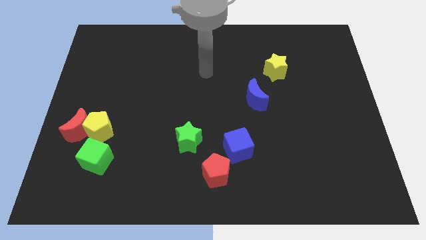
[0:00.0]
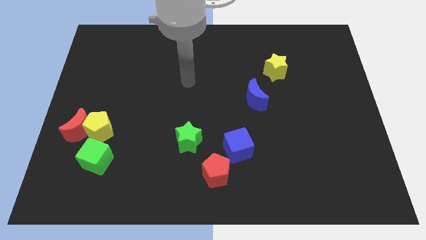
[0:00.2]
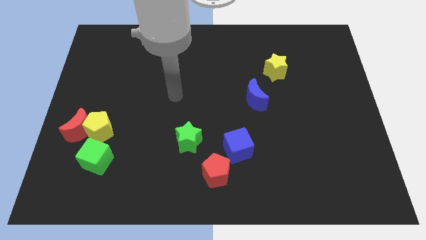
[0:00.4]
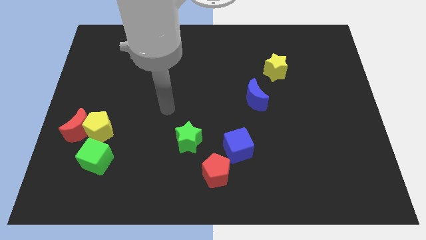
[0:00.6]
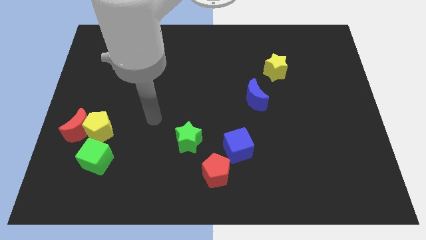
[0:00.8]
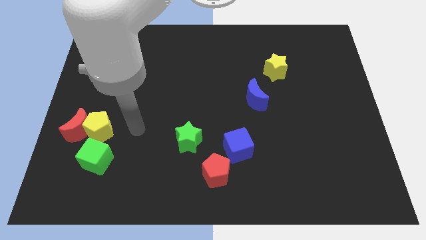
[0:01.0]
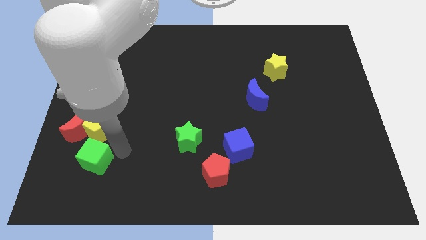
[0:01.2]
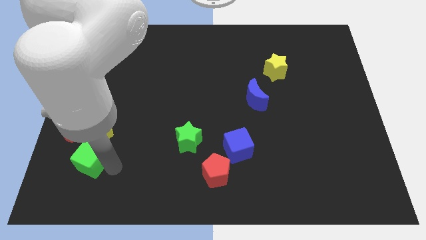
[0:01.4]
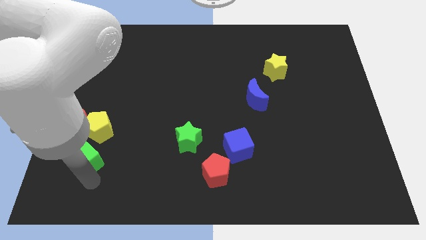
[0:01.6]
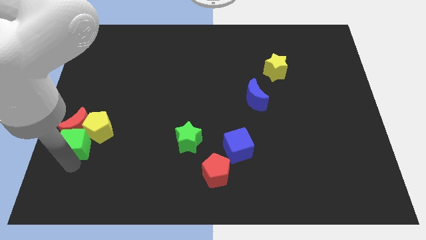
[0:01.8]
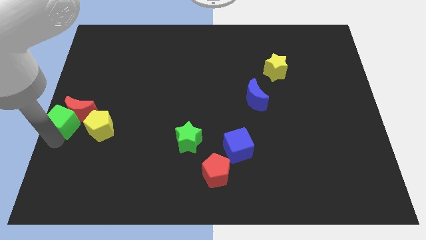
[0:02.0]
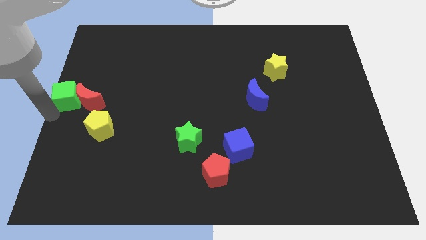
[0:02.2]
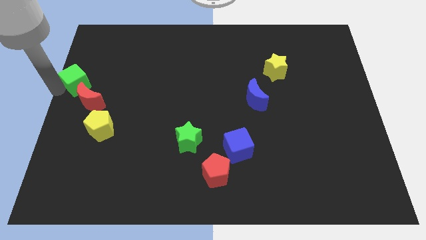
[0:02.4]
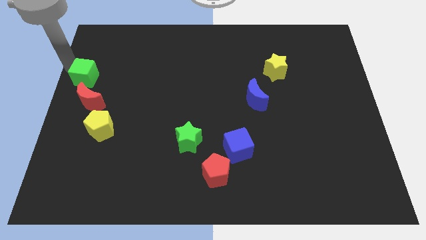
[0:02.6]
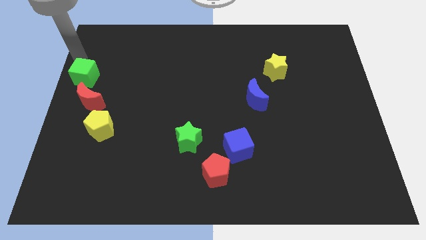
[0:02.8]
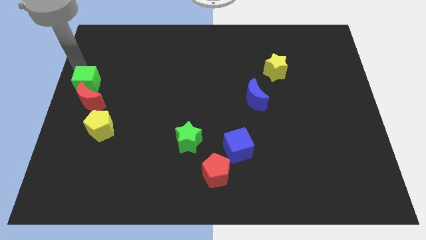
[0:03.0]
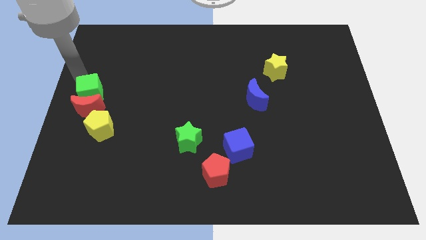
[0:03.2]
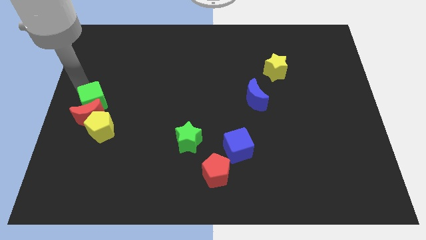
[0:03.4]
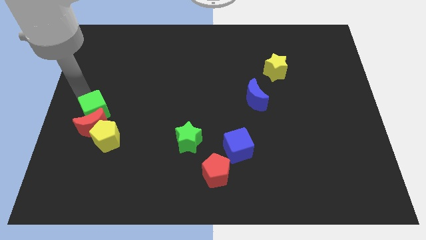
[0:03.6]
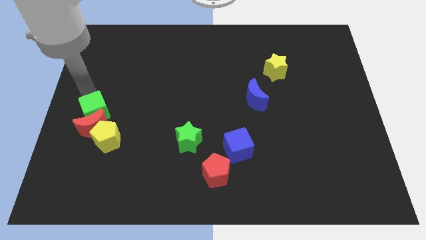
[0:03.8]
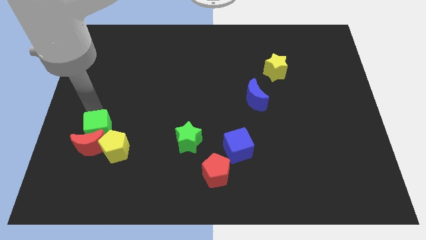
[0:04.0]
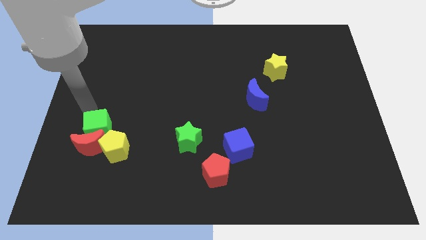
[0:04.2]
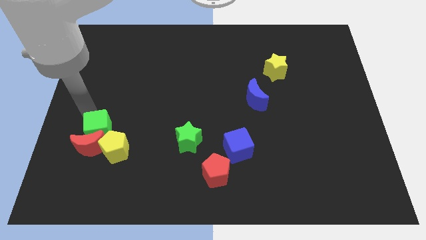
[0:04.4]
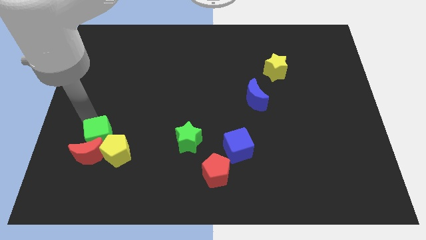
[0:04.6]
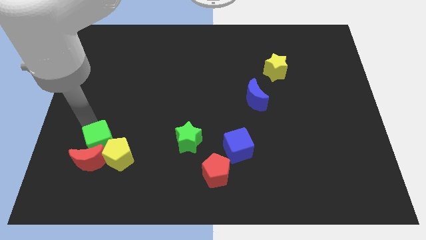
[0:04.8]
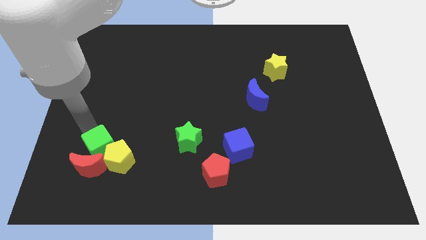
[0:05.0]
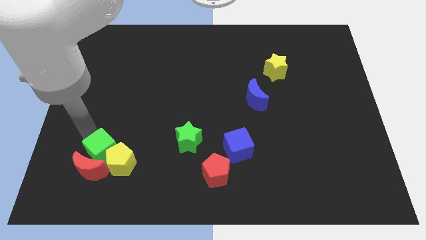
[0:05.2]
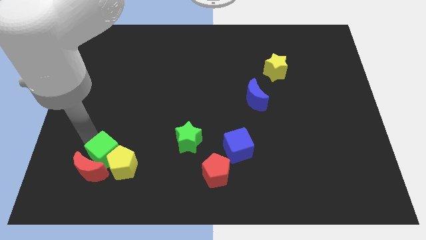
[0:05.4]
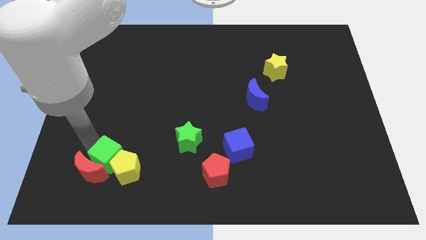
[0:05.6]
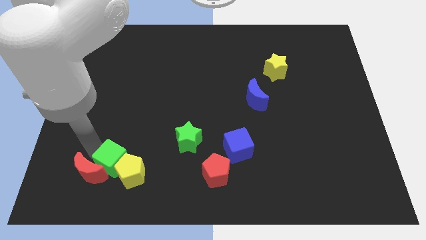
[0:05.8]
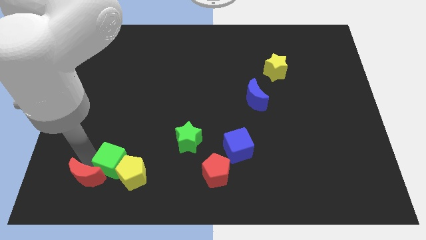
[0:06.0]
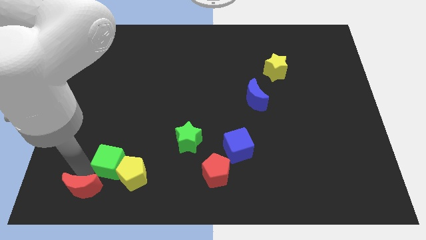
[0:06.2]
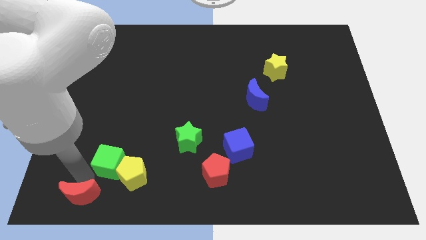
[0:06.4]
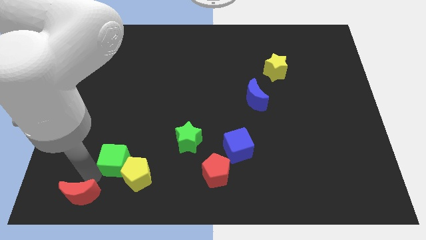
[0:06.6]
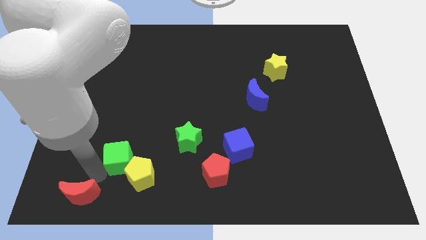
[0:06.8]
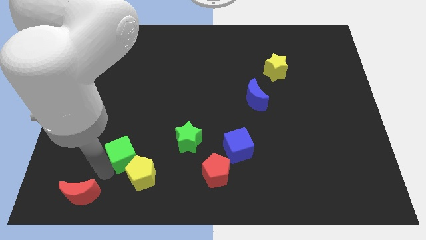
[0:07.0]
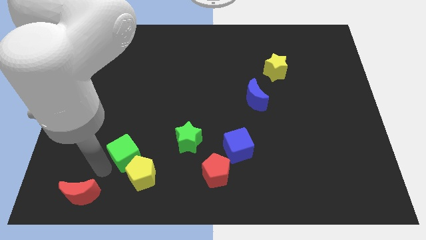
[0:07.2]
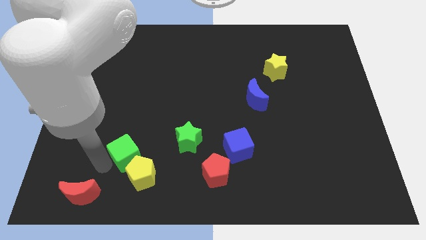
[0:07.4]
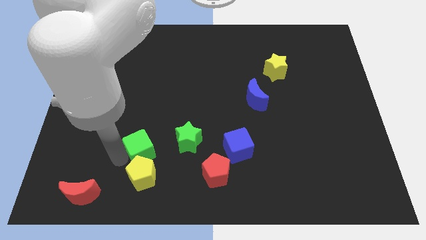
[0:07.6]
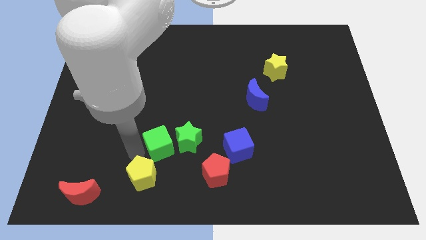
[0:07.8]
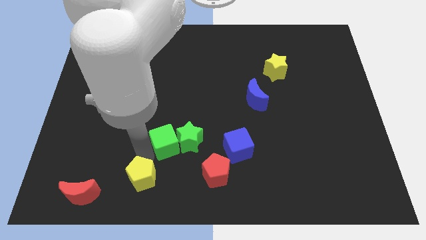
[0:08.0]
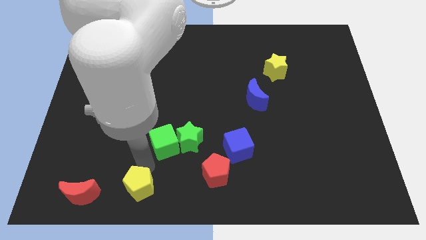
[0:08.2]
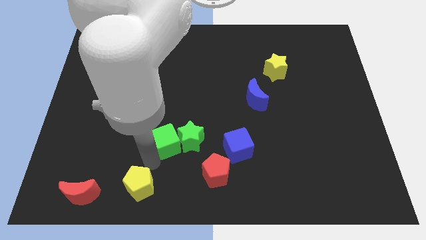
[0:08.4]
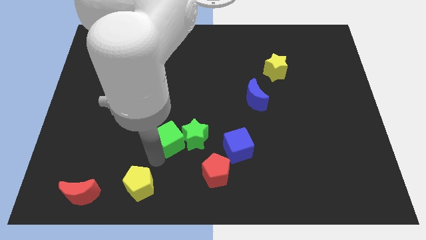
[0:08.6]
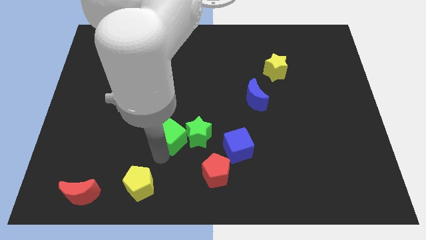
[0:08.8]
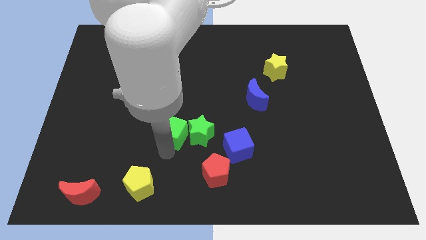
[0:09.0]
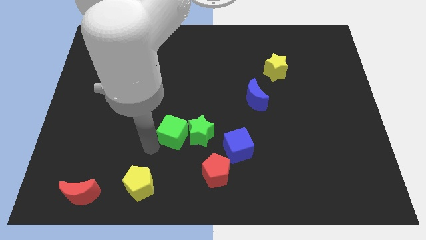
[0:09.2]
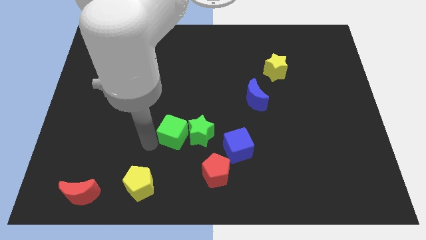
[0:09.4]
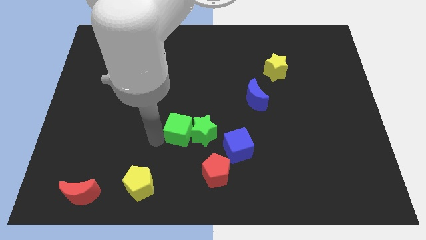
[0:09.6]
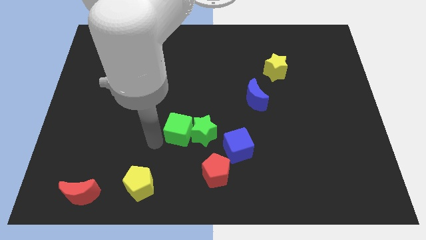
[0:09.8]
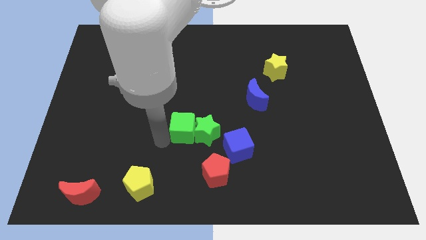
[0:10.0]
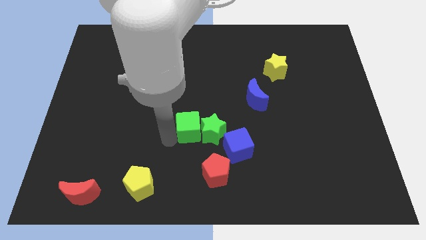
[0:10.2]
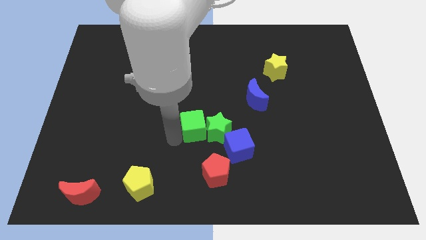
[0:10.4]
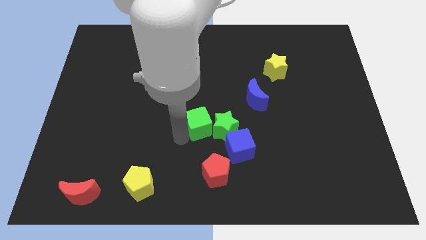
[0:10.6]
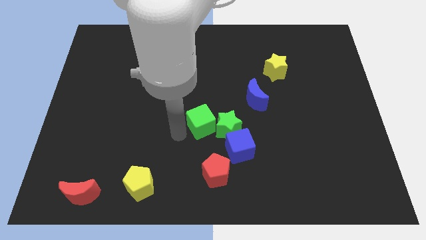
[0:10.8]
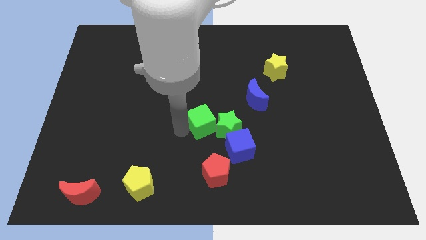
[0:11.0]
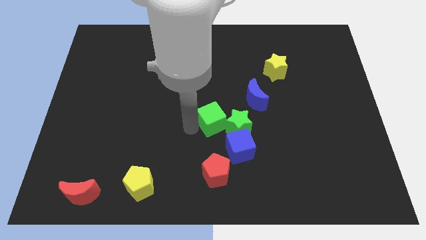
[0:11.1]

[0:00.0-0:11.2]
move the green cube diagonally down and to the left of the blue moon

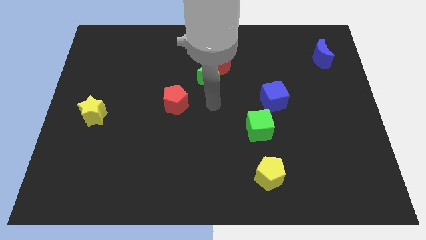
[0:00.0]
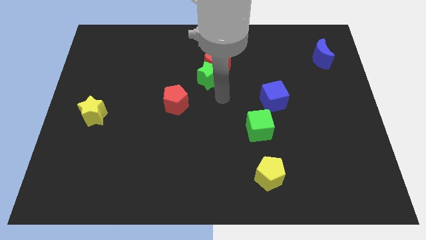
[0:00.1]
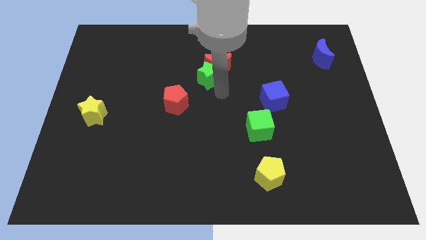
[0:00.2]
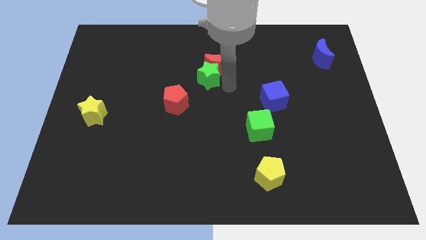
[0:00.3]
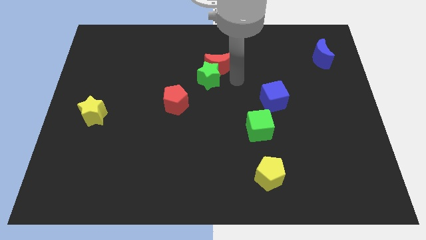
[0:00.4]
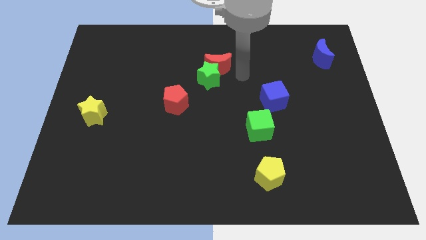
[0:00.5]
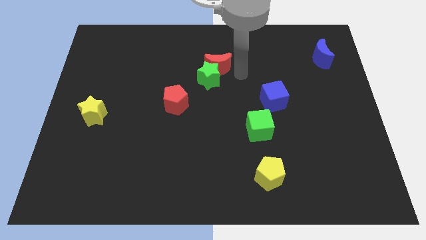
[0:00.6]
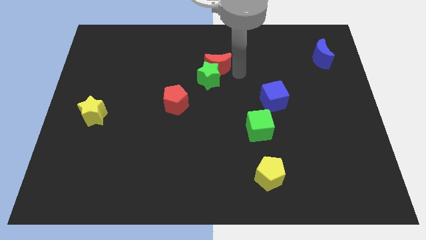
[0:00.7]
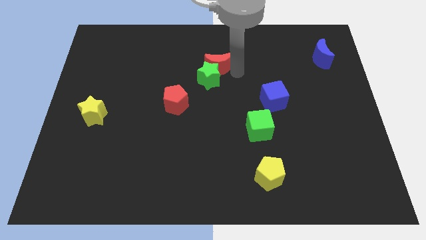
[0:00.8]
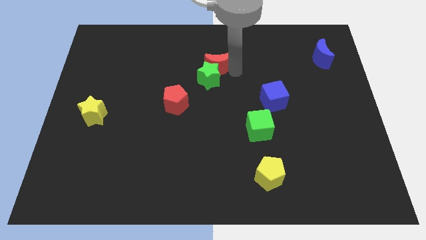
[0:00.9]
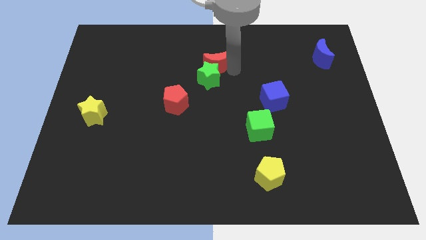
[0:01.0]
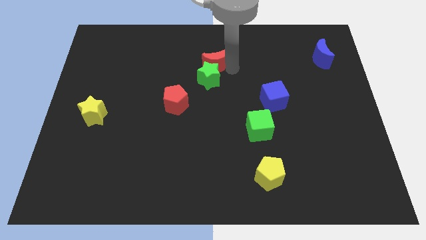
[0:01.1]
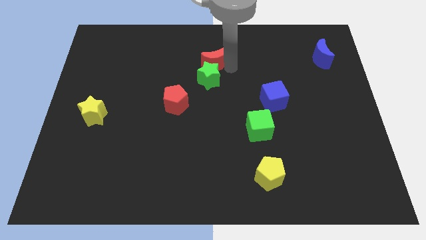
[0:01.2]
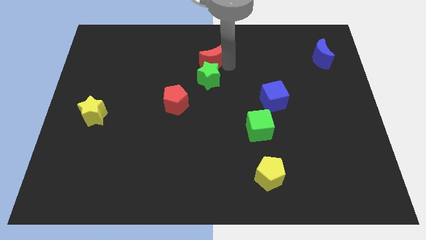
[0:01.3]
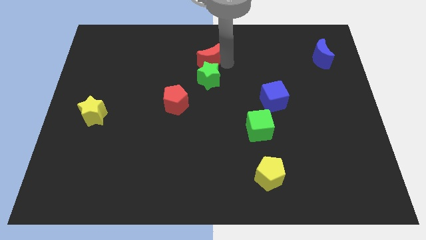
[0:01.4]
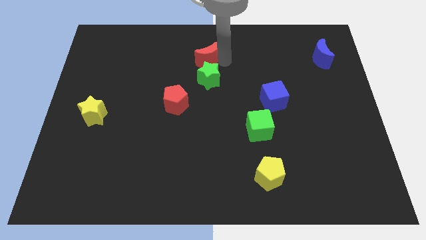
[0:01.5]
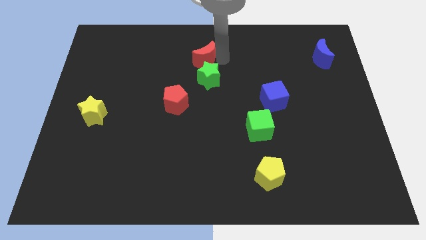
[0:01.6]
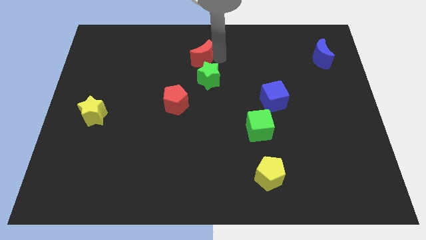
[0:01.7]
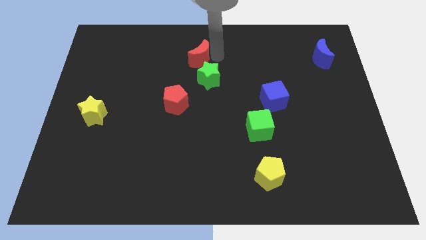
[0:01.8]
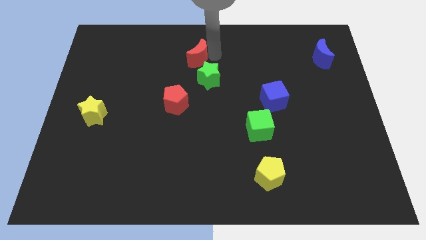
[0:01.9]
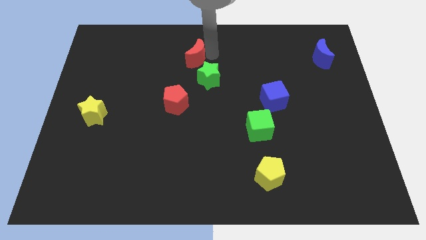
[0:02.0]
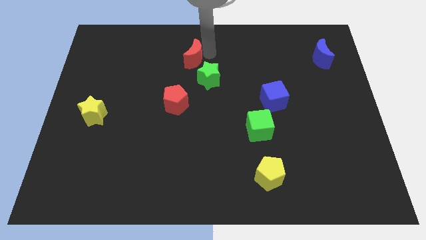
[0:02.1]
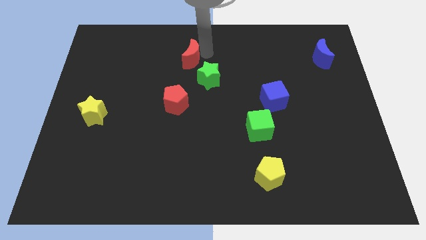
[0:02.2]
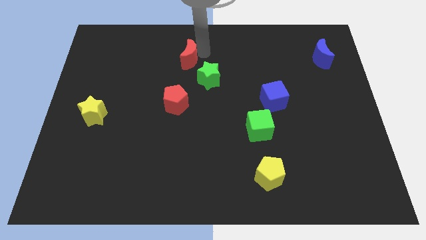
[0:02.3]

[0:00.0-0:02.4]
push the red moon above the red pentagon

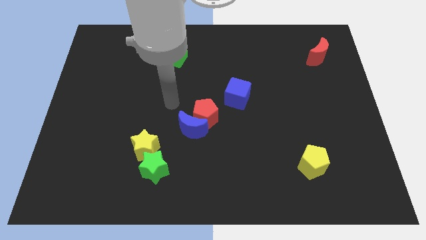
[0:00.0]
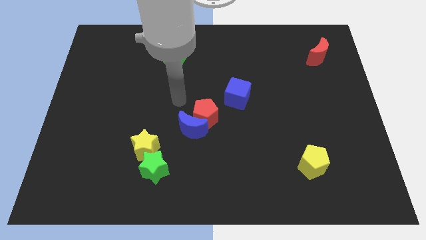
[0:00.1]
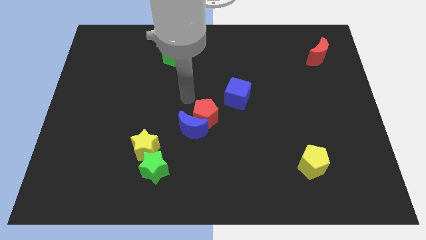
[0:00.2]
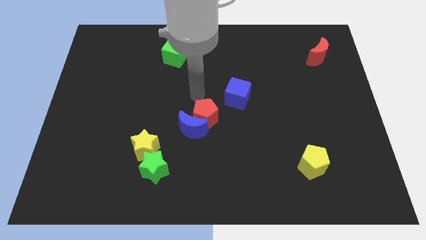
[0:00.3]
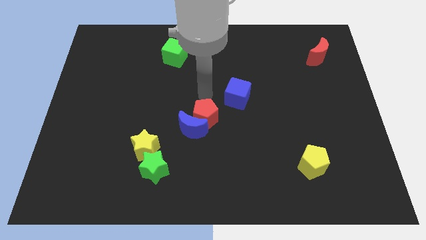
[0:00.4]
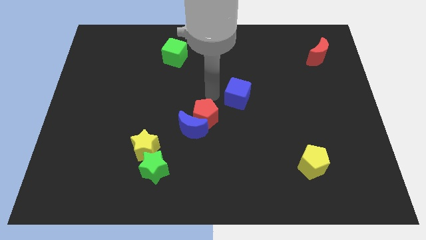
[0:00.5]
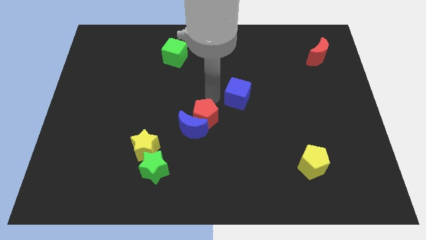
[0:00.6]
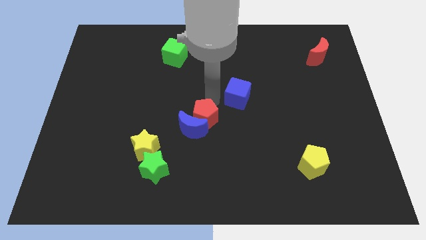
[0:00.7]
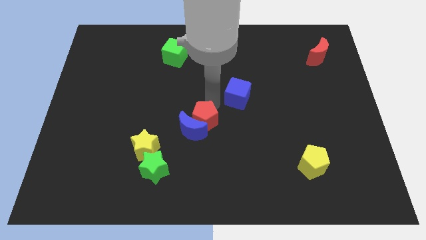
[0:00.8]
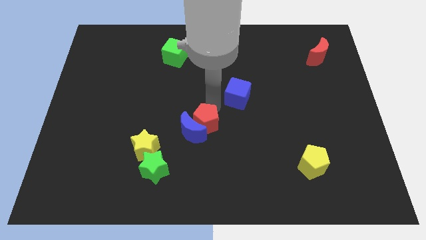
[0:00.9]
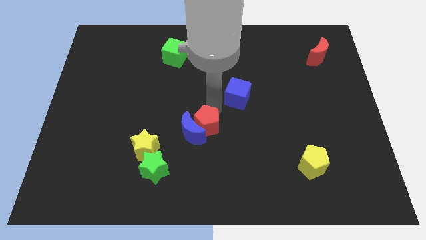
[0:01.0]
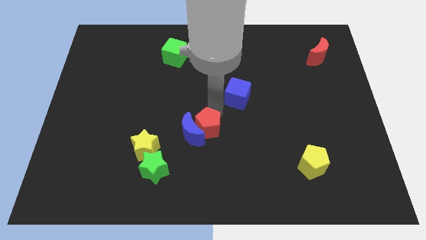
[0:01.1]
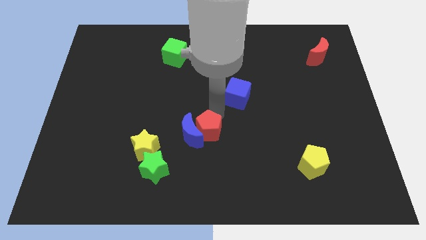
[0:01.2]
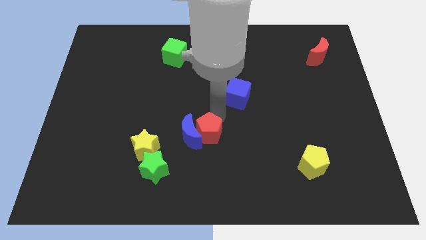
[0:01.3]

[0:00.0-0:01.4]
move the red pentagon to the right of the yellow star
